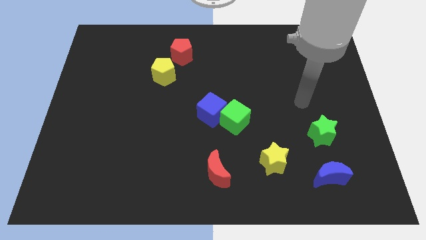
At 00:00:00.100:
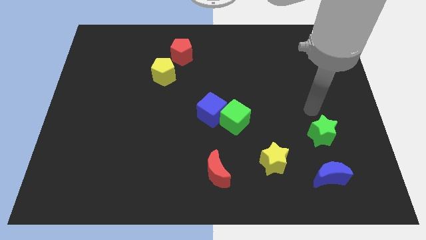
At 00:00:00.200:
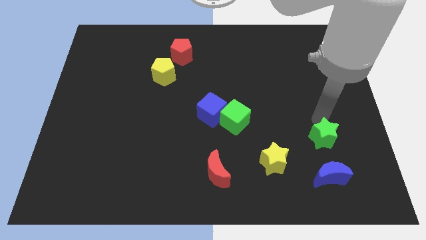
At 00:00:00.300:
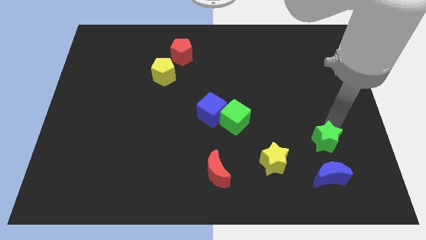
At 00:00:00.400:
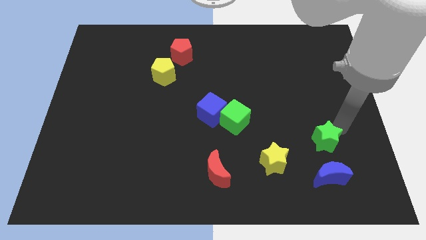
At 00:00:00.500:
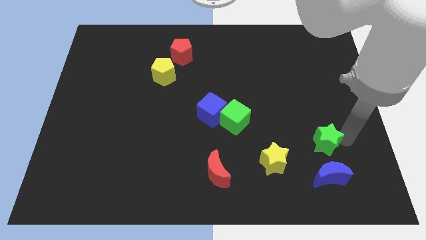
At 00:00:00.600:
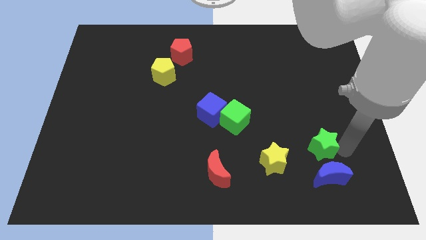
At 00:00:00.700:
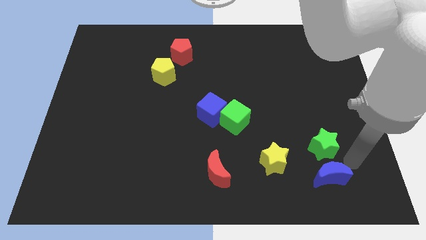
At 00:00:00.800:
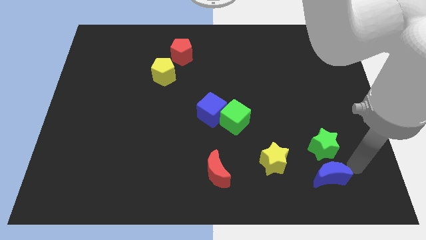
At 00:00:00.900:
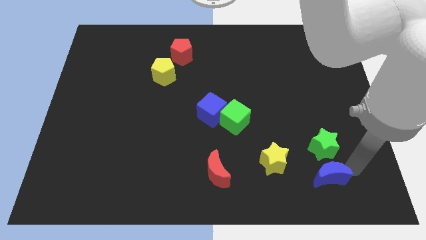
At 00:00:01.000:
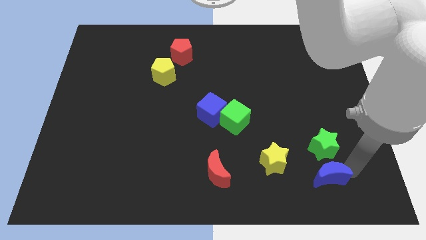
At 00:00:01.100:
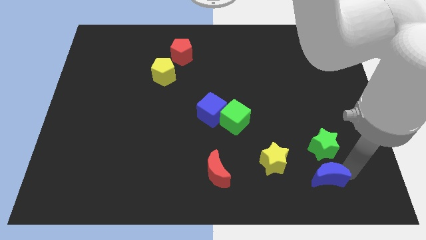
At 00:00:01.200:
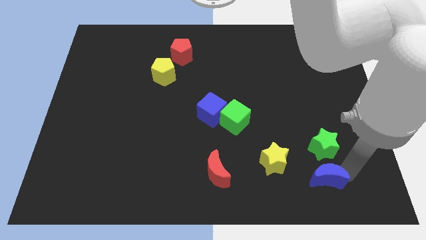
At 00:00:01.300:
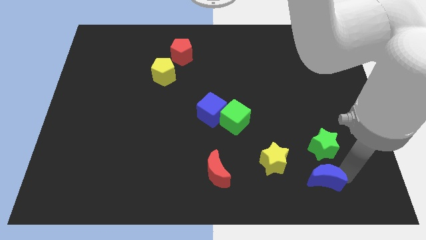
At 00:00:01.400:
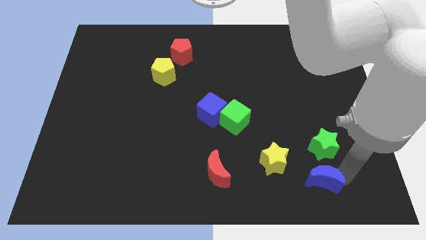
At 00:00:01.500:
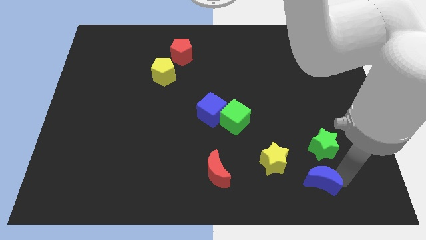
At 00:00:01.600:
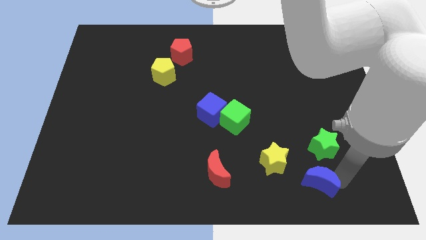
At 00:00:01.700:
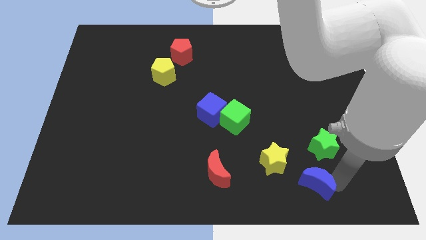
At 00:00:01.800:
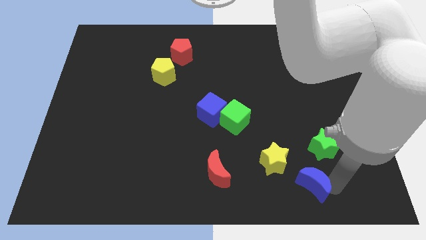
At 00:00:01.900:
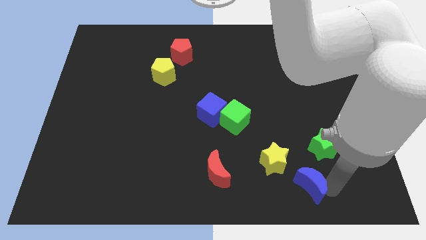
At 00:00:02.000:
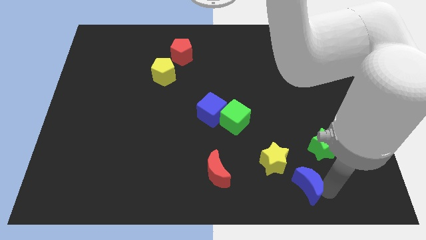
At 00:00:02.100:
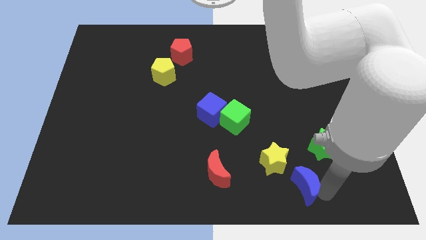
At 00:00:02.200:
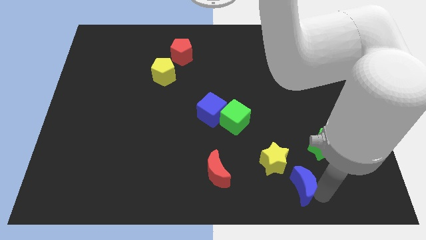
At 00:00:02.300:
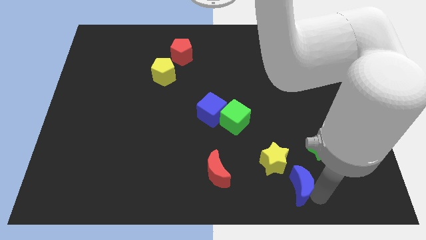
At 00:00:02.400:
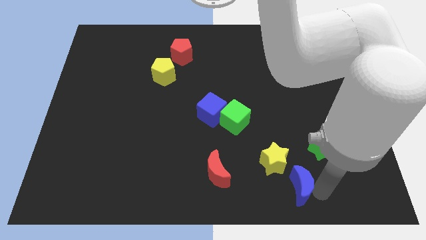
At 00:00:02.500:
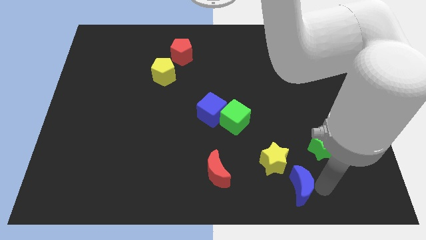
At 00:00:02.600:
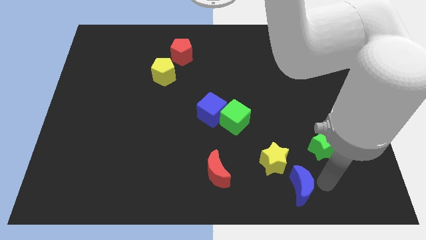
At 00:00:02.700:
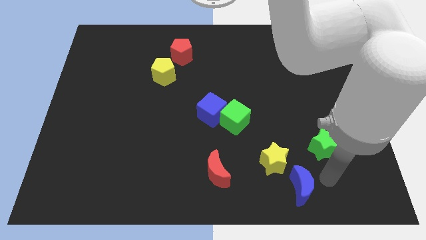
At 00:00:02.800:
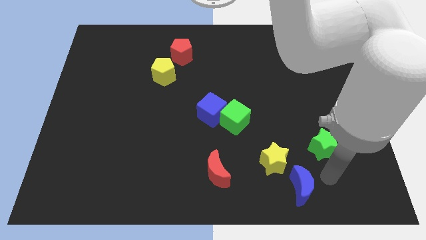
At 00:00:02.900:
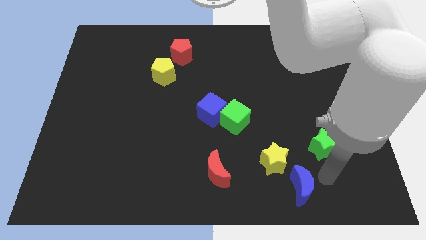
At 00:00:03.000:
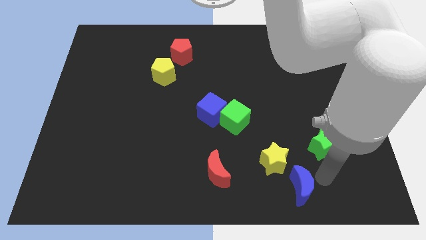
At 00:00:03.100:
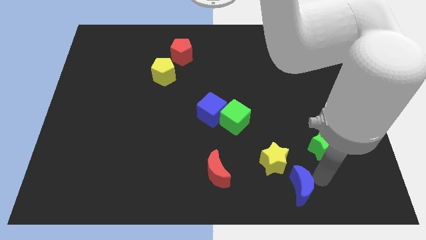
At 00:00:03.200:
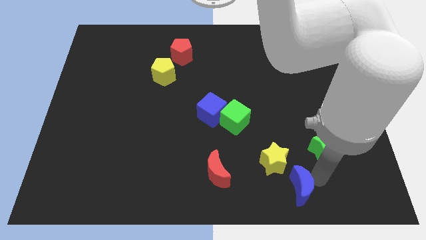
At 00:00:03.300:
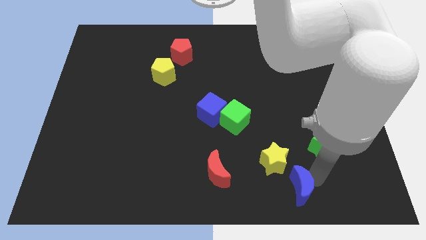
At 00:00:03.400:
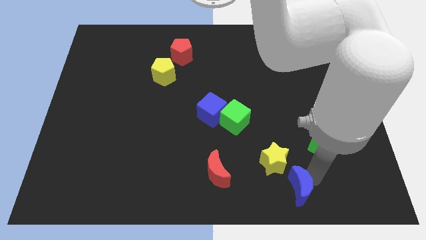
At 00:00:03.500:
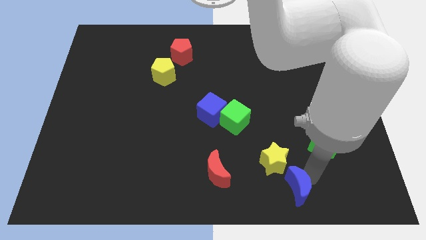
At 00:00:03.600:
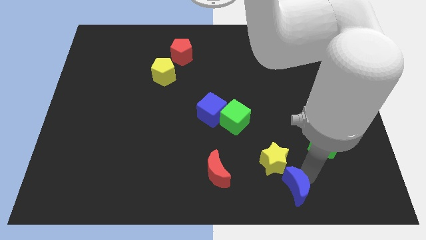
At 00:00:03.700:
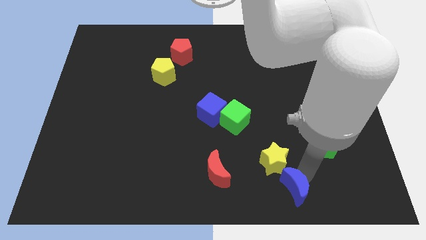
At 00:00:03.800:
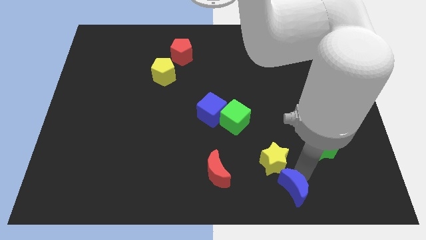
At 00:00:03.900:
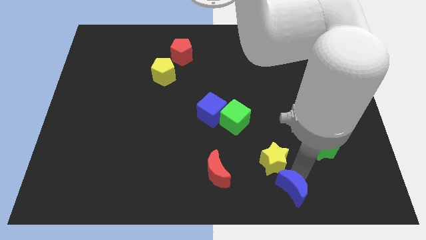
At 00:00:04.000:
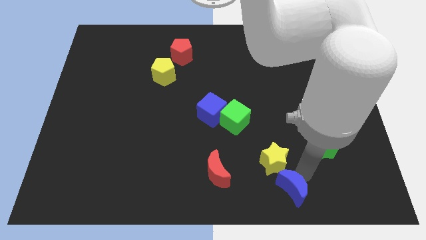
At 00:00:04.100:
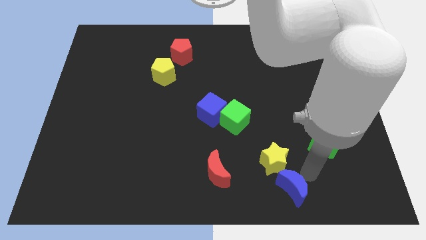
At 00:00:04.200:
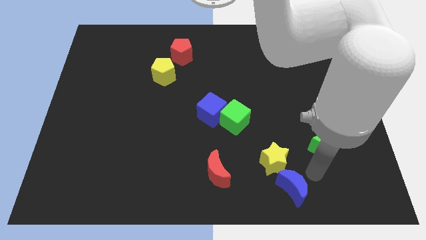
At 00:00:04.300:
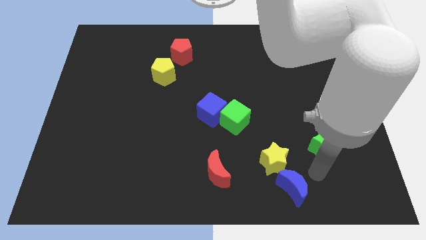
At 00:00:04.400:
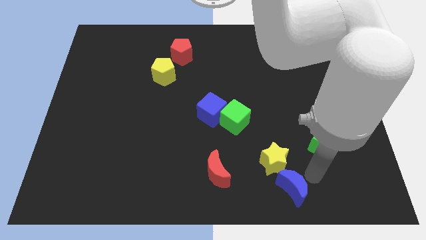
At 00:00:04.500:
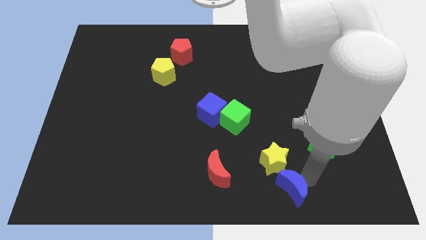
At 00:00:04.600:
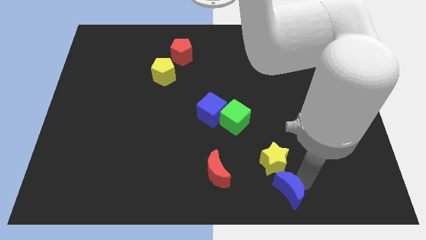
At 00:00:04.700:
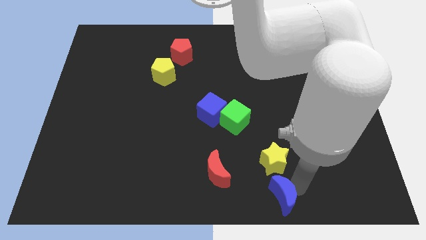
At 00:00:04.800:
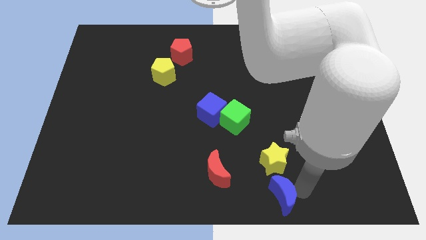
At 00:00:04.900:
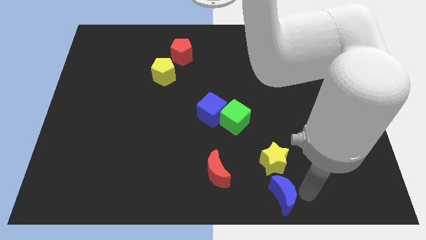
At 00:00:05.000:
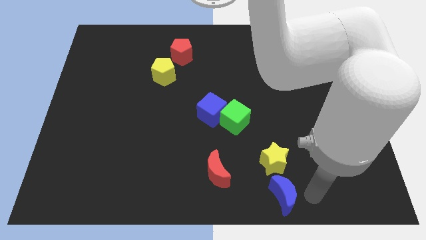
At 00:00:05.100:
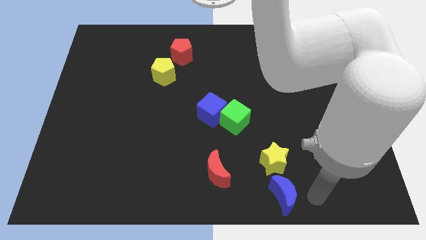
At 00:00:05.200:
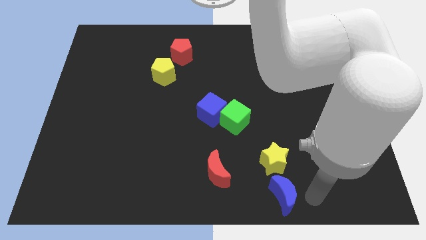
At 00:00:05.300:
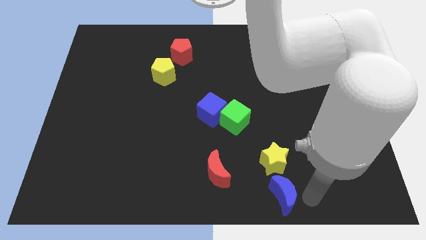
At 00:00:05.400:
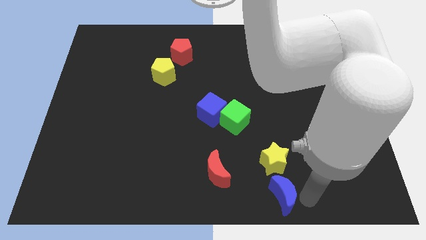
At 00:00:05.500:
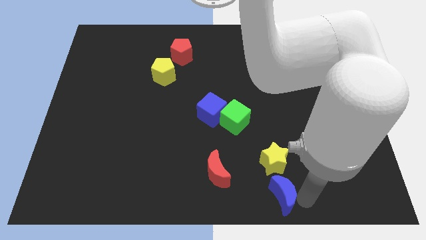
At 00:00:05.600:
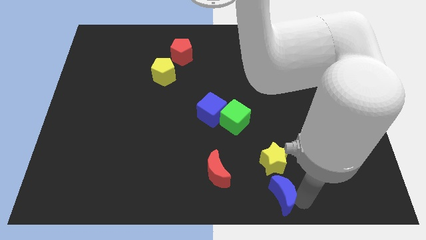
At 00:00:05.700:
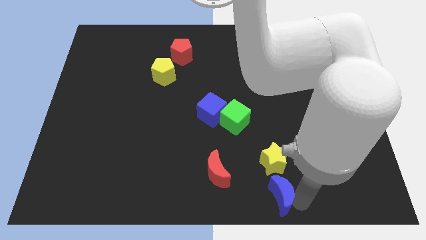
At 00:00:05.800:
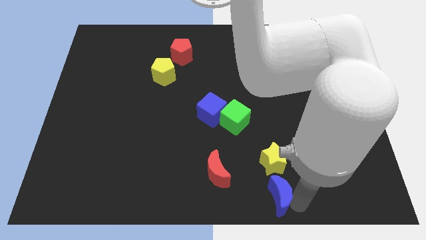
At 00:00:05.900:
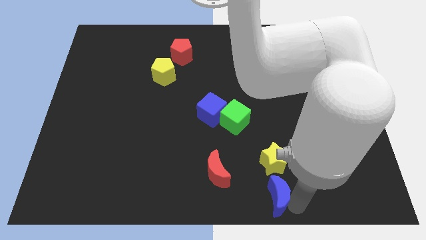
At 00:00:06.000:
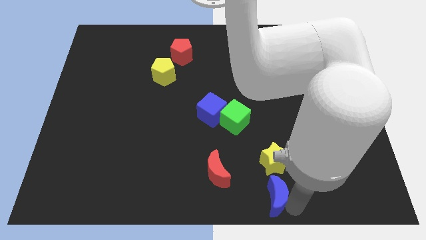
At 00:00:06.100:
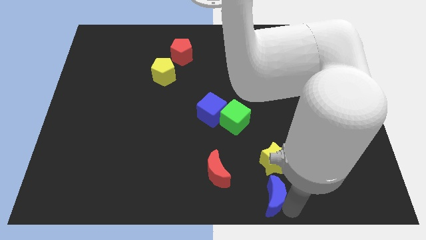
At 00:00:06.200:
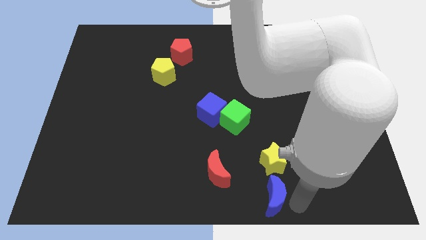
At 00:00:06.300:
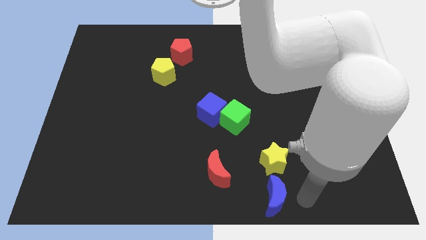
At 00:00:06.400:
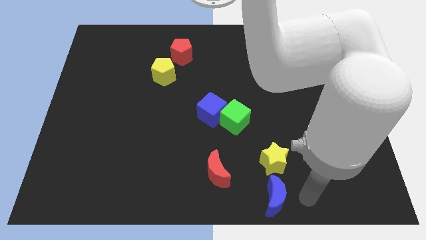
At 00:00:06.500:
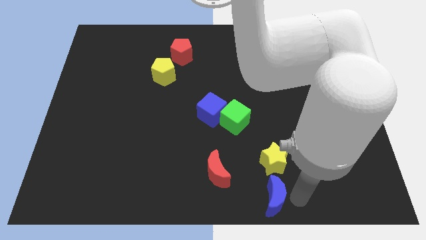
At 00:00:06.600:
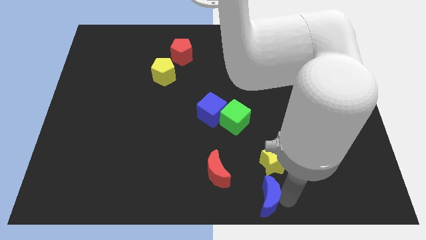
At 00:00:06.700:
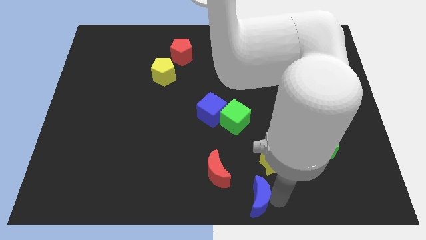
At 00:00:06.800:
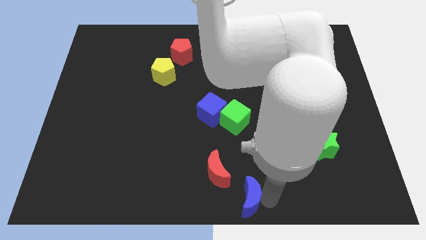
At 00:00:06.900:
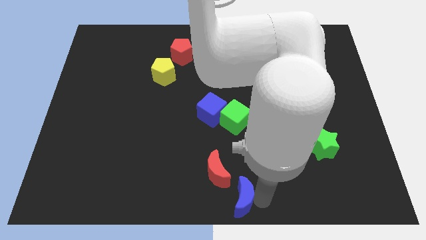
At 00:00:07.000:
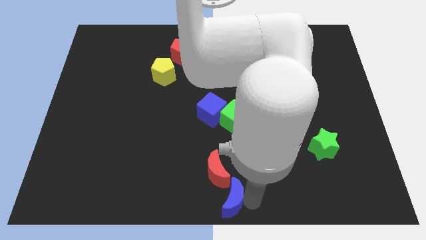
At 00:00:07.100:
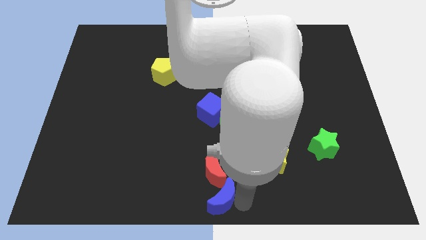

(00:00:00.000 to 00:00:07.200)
slide the blue moon to the left

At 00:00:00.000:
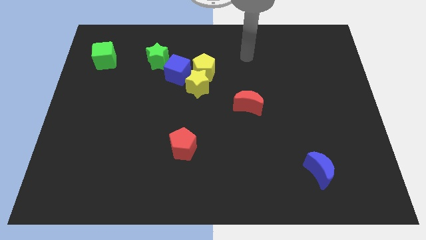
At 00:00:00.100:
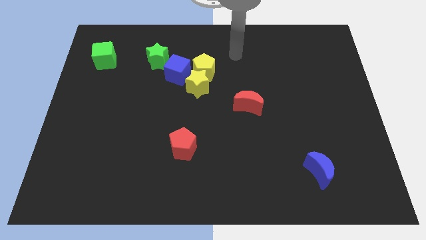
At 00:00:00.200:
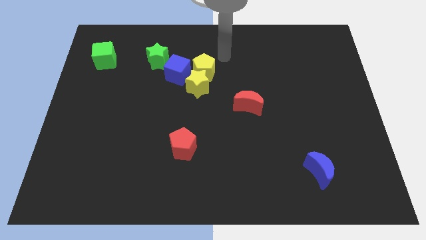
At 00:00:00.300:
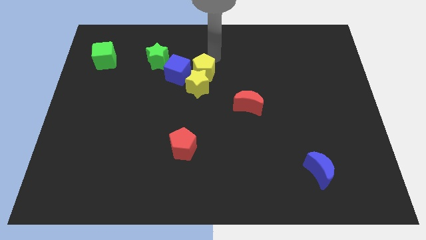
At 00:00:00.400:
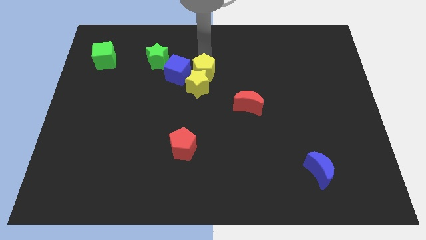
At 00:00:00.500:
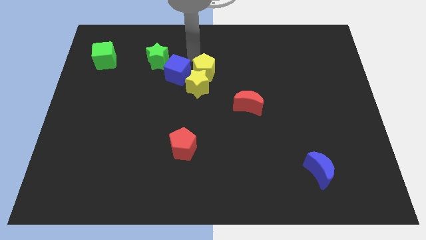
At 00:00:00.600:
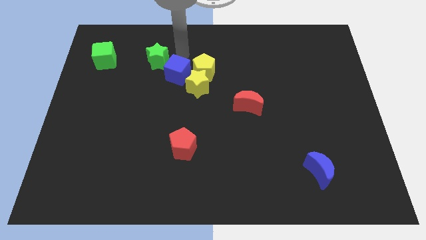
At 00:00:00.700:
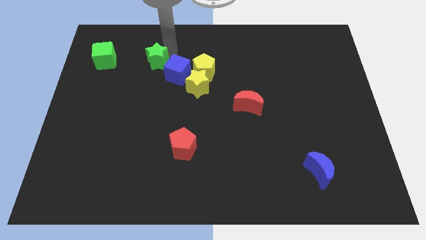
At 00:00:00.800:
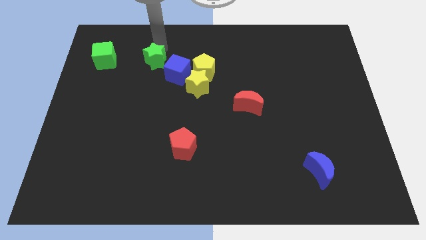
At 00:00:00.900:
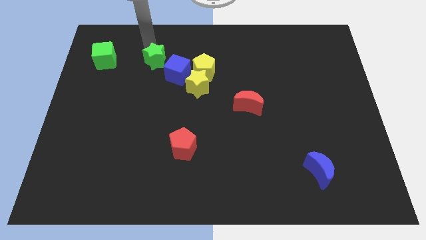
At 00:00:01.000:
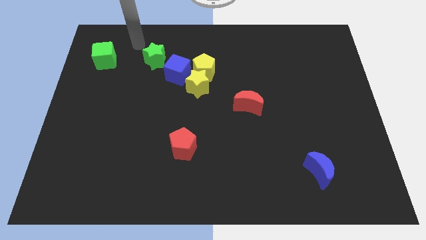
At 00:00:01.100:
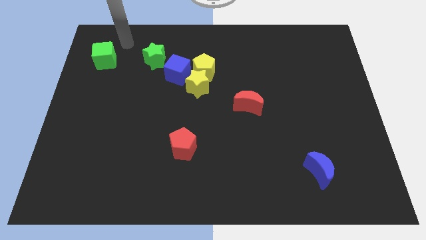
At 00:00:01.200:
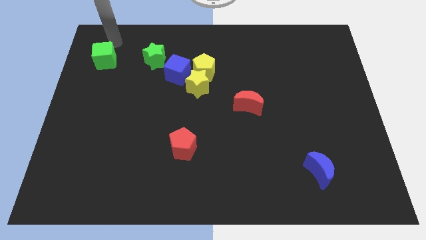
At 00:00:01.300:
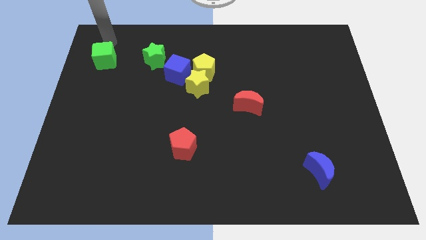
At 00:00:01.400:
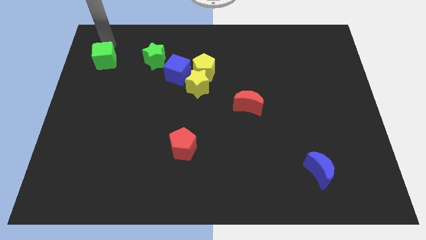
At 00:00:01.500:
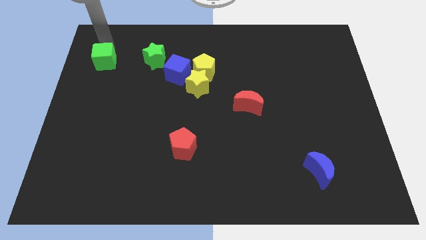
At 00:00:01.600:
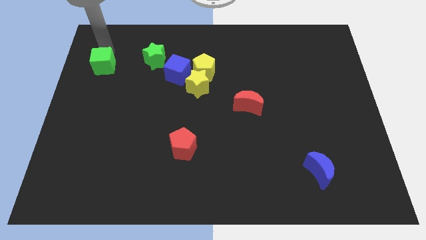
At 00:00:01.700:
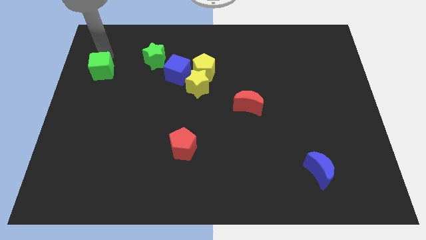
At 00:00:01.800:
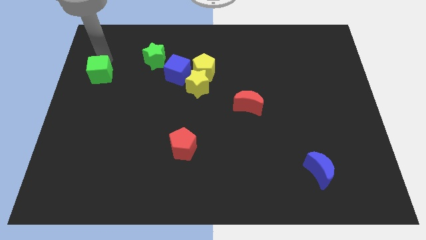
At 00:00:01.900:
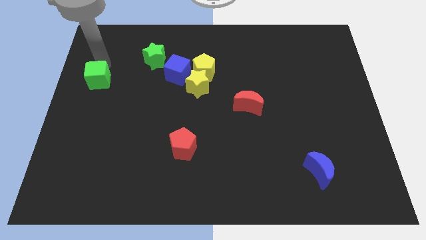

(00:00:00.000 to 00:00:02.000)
move the green cube down slightly
